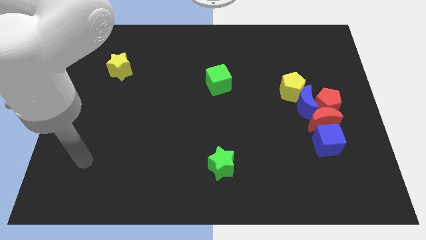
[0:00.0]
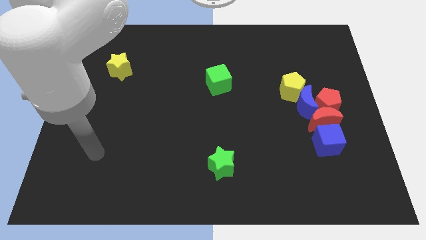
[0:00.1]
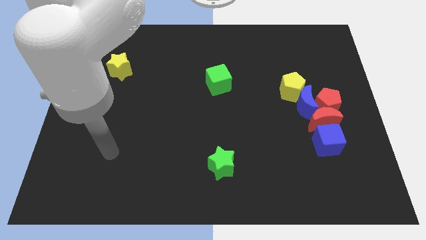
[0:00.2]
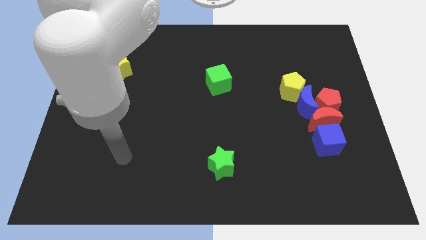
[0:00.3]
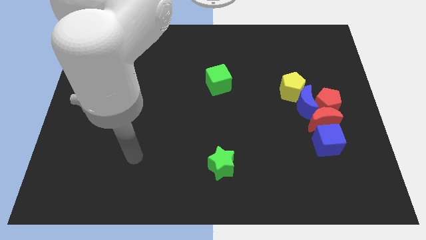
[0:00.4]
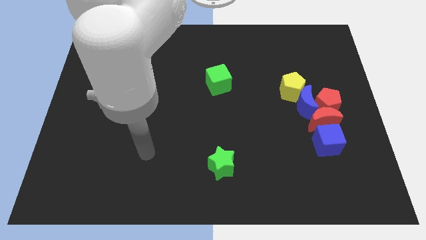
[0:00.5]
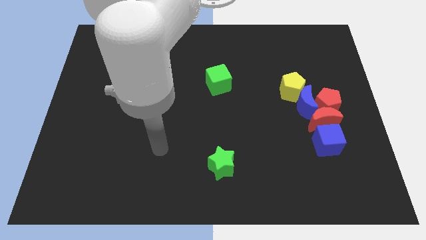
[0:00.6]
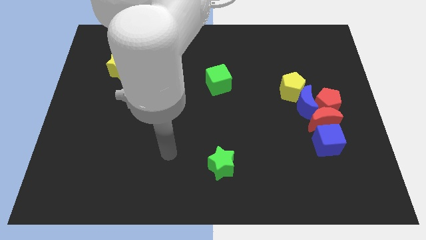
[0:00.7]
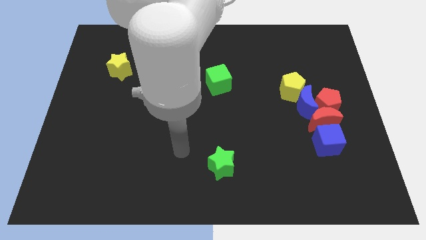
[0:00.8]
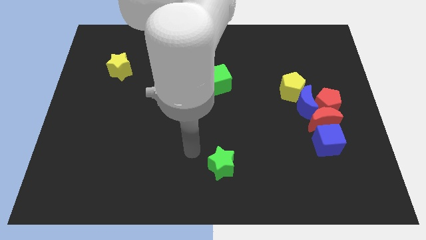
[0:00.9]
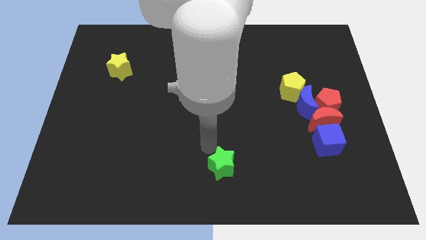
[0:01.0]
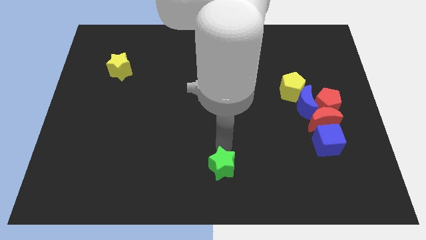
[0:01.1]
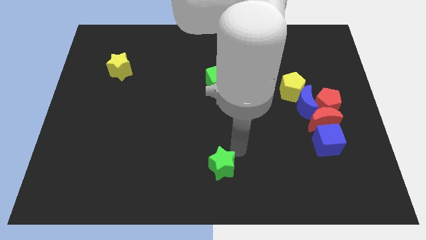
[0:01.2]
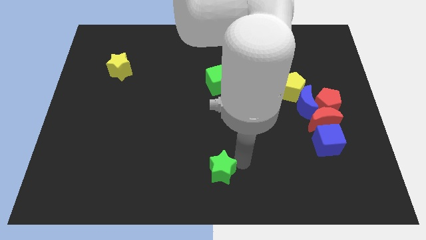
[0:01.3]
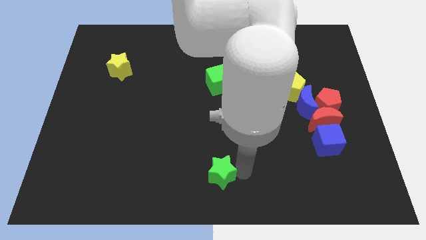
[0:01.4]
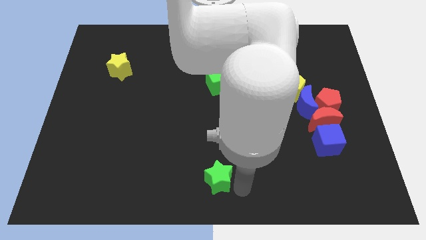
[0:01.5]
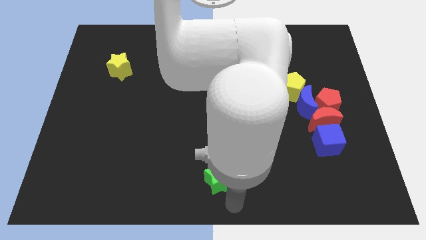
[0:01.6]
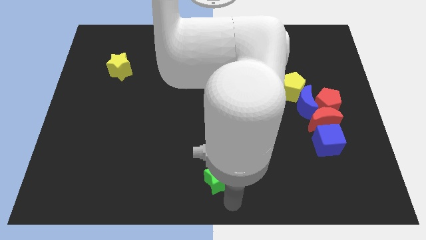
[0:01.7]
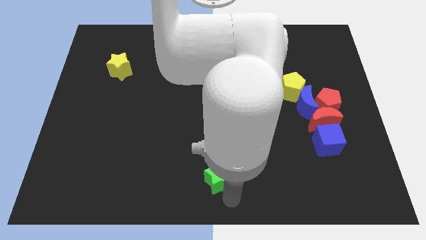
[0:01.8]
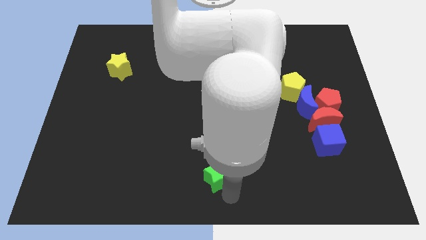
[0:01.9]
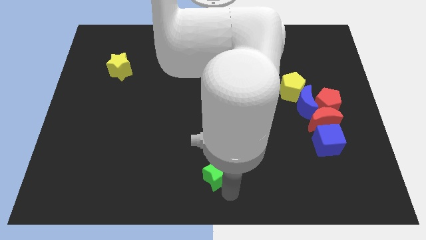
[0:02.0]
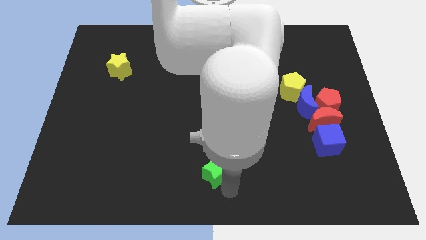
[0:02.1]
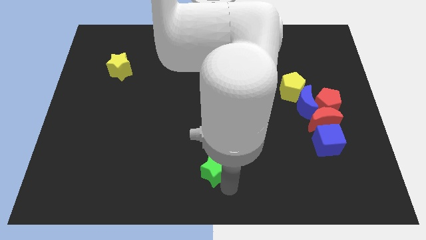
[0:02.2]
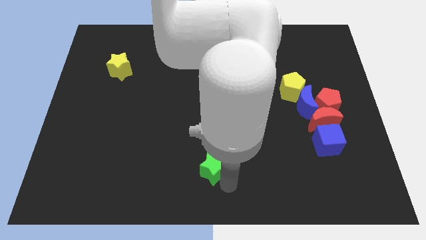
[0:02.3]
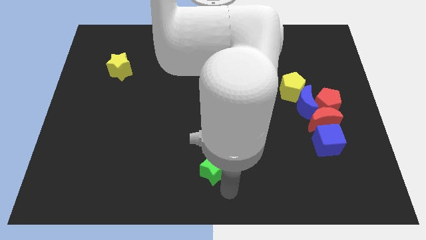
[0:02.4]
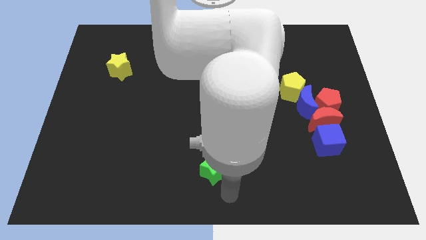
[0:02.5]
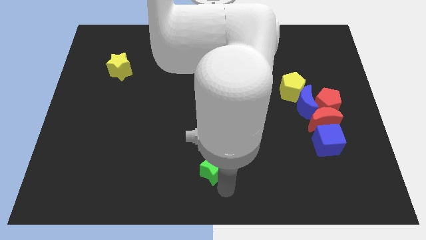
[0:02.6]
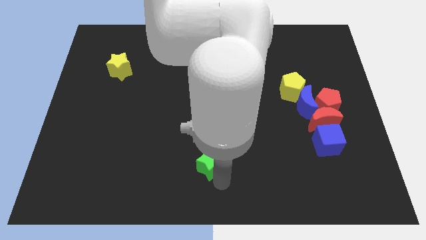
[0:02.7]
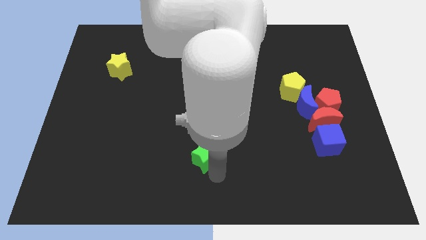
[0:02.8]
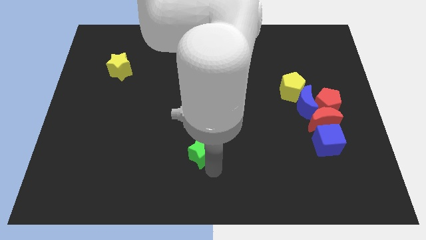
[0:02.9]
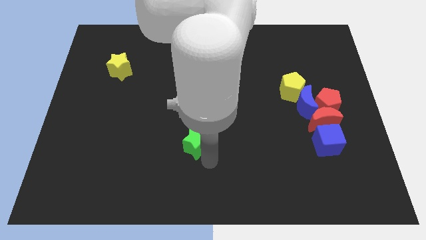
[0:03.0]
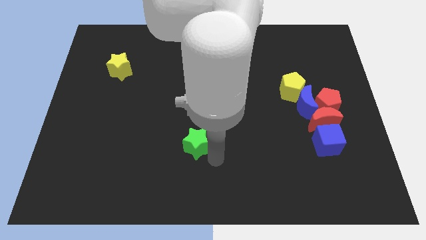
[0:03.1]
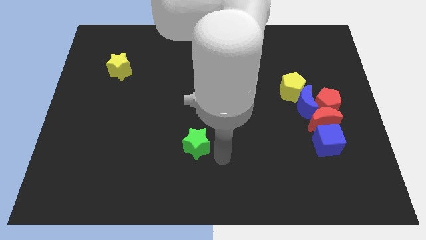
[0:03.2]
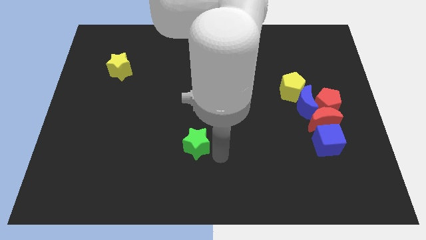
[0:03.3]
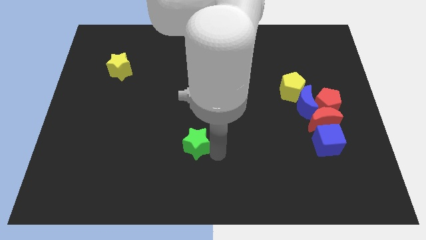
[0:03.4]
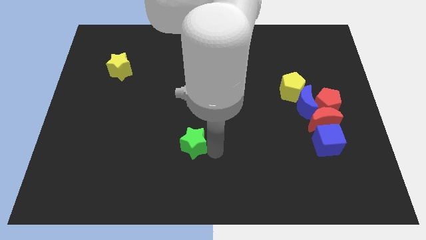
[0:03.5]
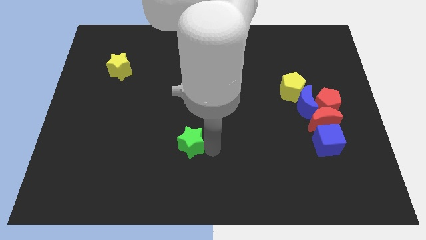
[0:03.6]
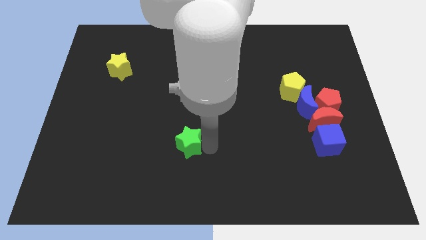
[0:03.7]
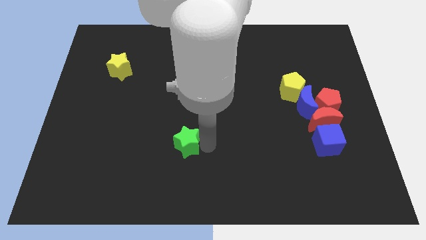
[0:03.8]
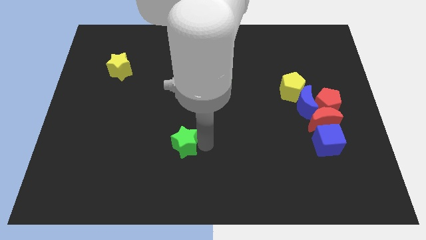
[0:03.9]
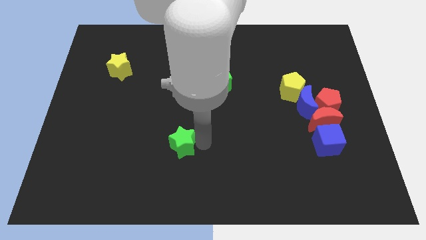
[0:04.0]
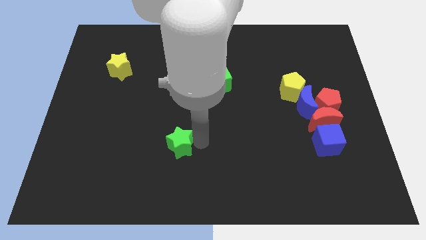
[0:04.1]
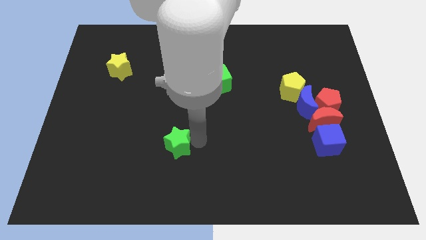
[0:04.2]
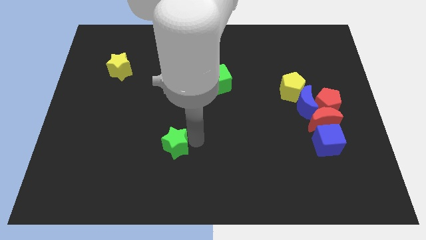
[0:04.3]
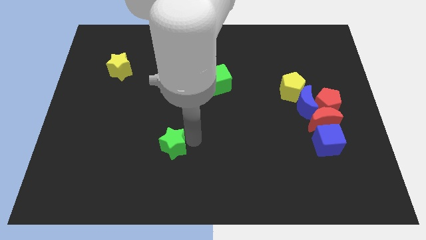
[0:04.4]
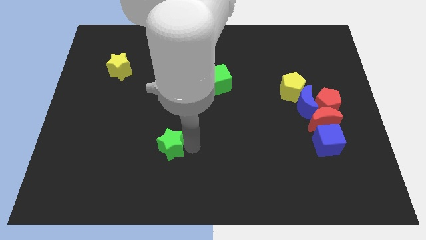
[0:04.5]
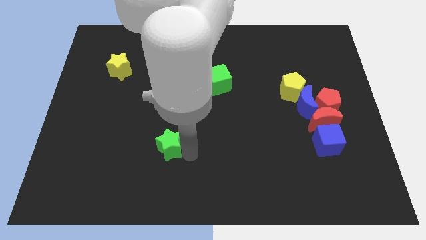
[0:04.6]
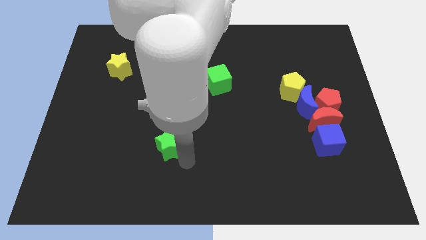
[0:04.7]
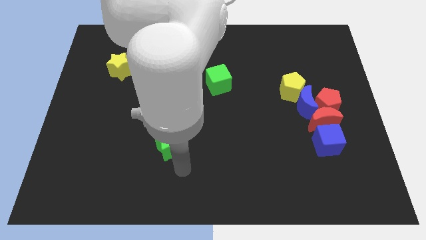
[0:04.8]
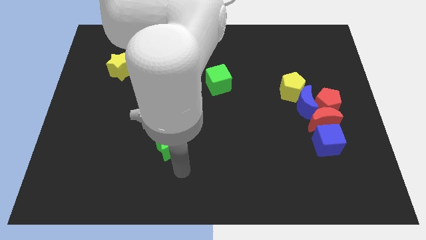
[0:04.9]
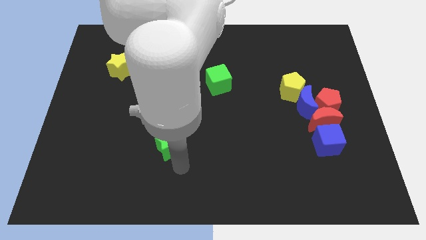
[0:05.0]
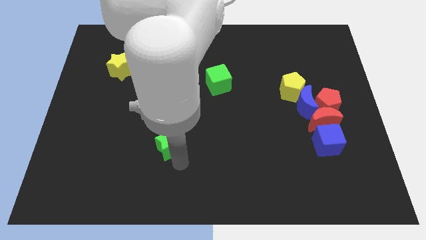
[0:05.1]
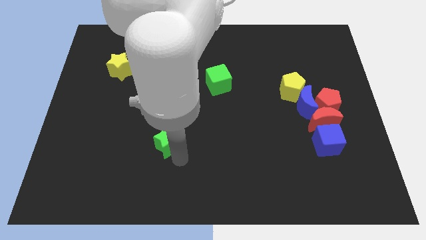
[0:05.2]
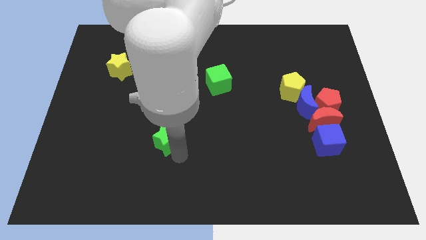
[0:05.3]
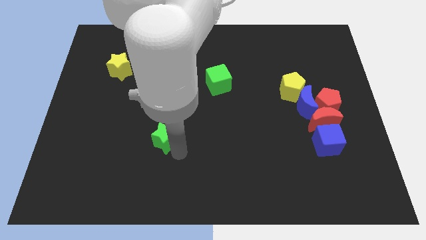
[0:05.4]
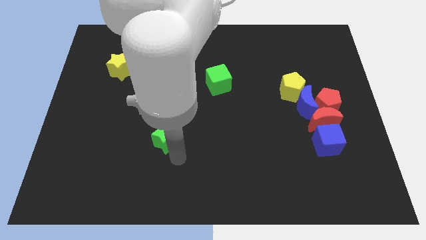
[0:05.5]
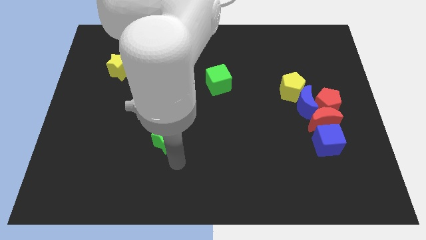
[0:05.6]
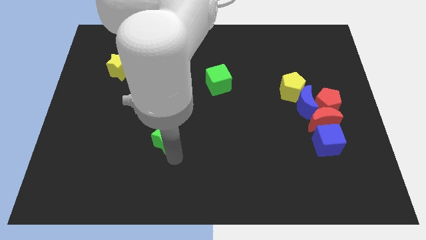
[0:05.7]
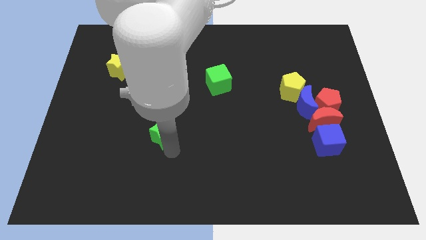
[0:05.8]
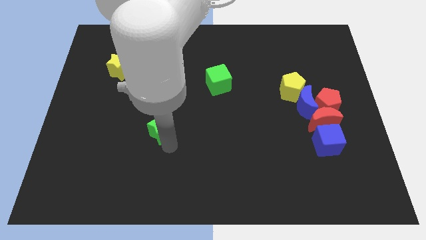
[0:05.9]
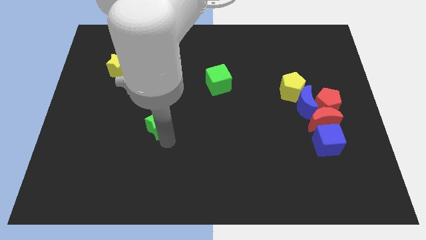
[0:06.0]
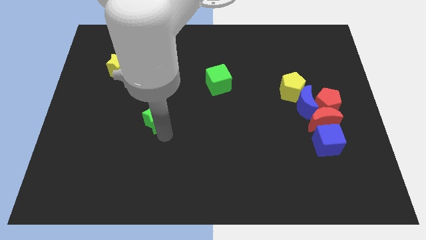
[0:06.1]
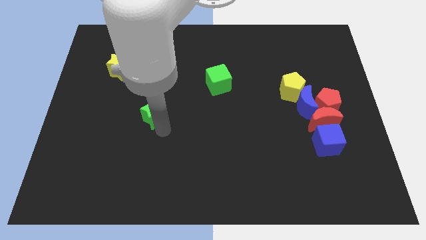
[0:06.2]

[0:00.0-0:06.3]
slide the green star upwards and left diagonally

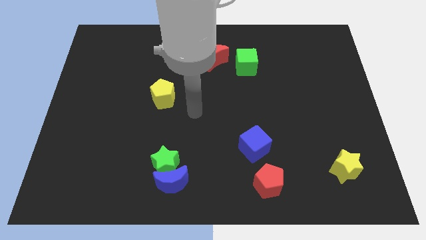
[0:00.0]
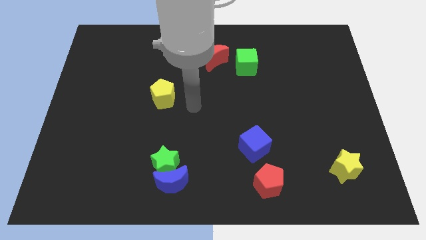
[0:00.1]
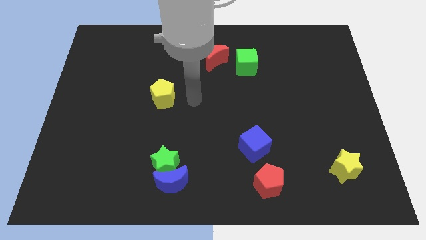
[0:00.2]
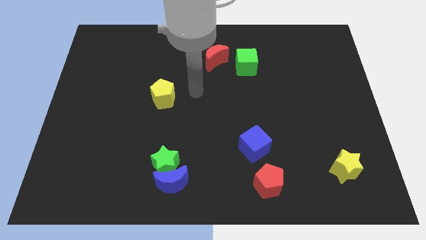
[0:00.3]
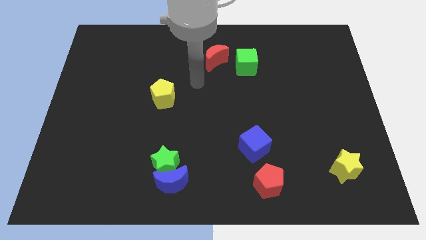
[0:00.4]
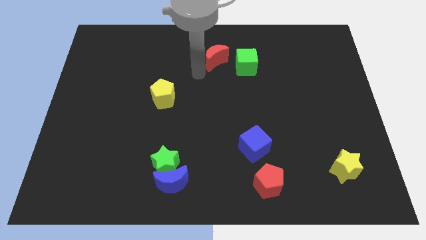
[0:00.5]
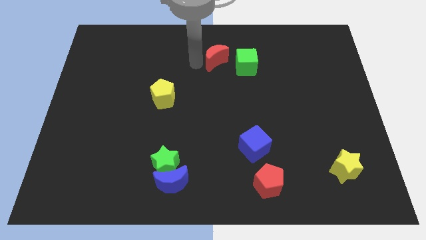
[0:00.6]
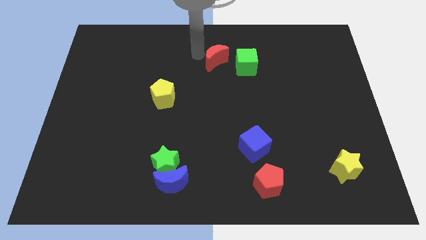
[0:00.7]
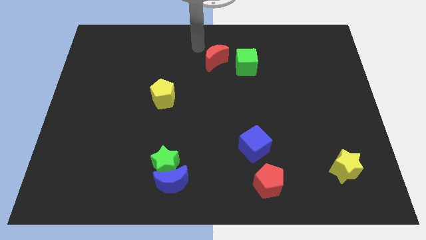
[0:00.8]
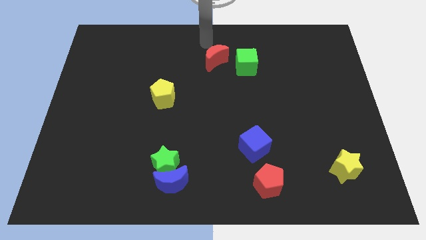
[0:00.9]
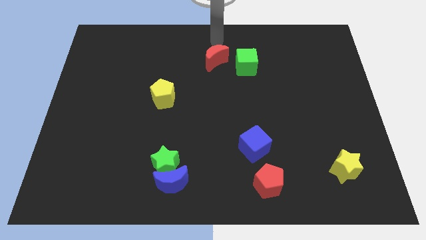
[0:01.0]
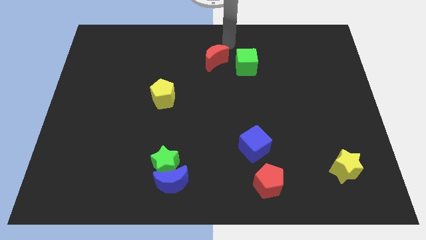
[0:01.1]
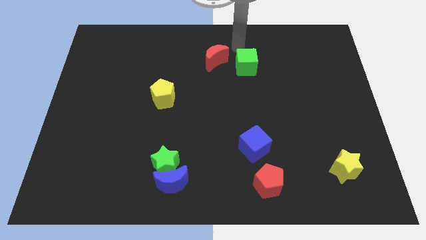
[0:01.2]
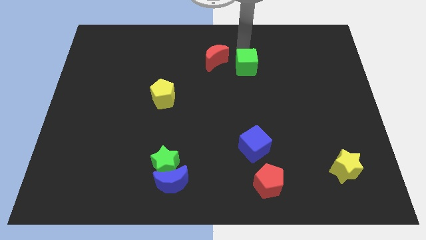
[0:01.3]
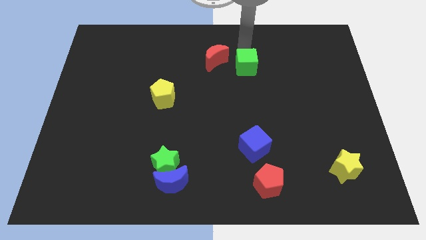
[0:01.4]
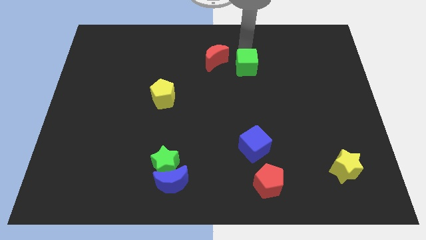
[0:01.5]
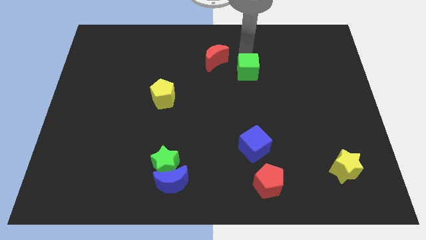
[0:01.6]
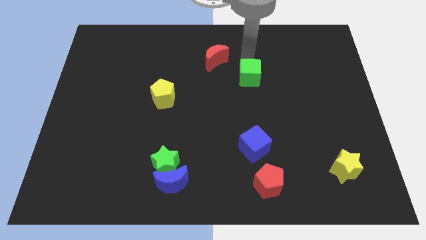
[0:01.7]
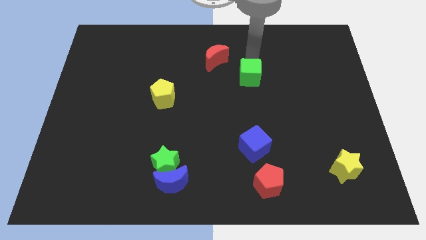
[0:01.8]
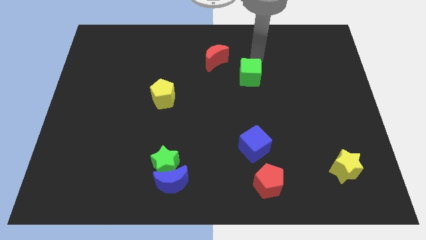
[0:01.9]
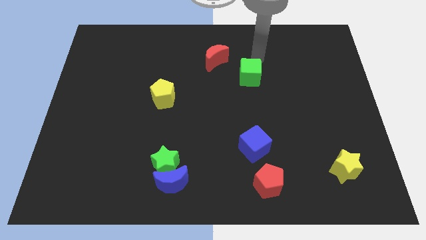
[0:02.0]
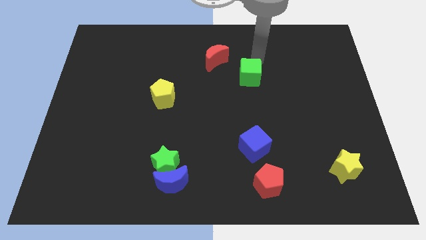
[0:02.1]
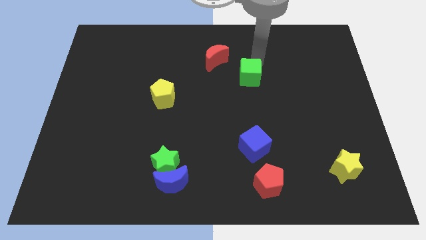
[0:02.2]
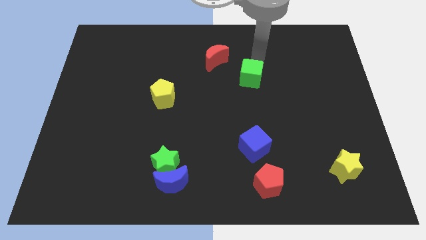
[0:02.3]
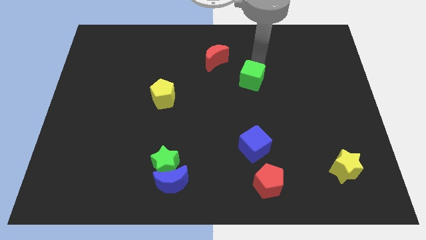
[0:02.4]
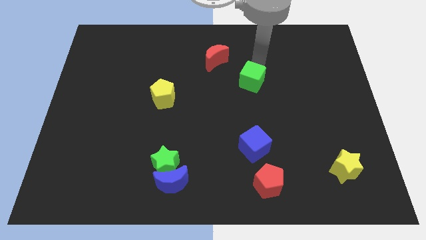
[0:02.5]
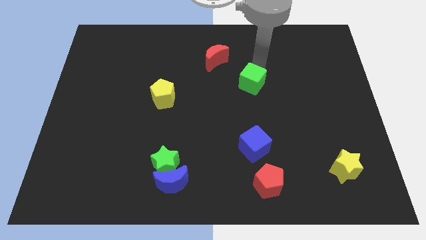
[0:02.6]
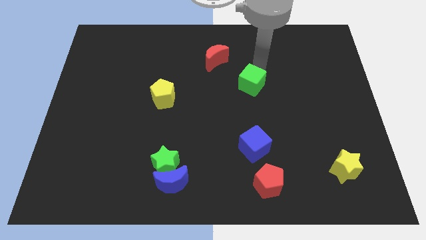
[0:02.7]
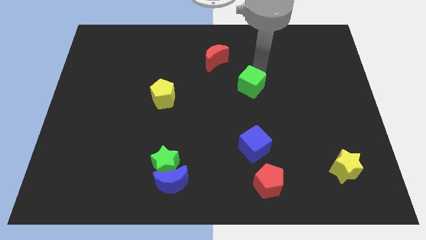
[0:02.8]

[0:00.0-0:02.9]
slightly move the green cube downwards
